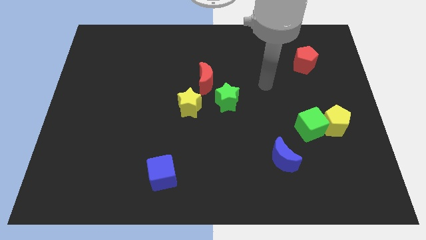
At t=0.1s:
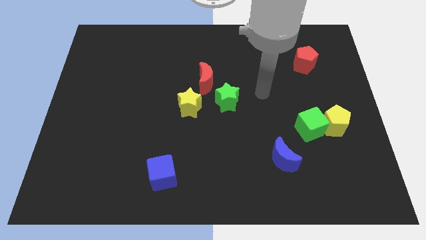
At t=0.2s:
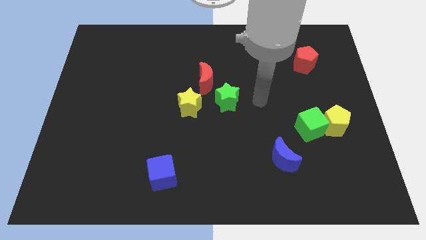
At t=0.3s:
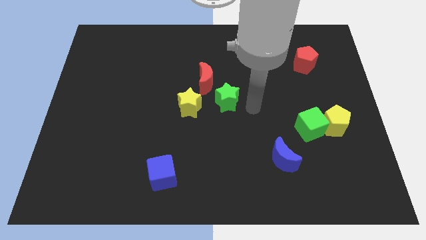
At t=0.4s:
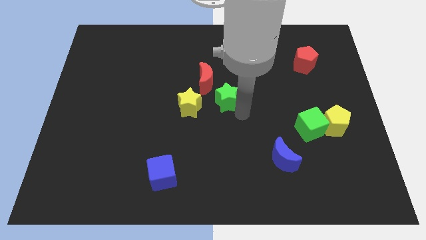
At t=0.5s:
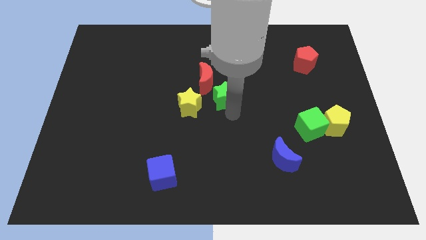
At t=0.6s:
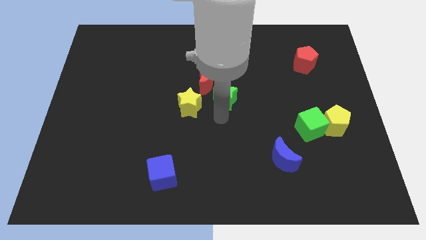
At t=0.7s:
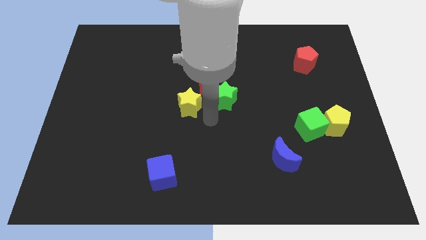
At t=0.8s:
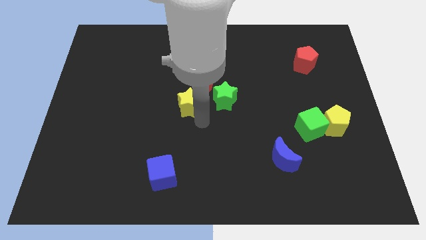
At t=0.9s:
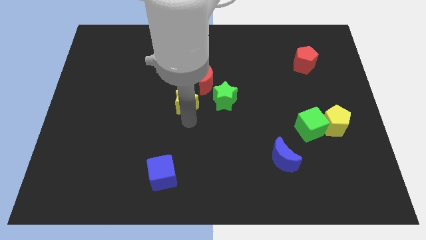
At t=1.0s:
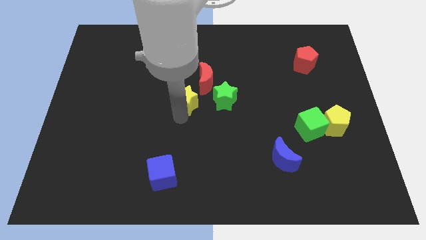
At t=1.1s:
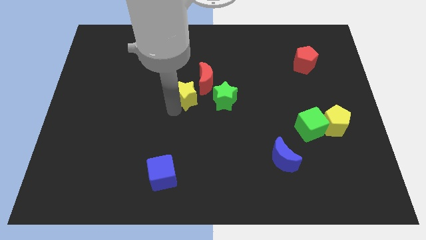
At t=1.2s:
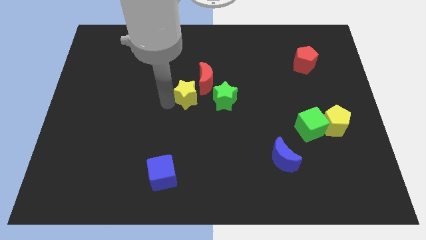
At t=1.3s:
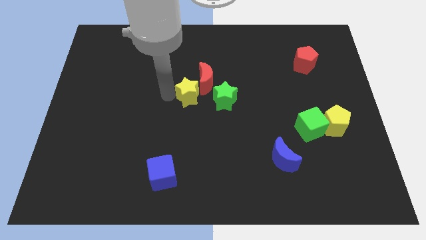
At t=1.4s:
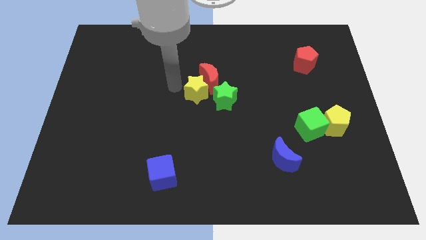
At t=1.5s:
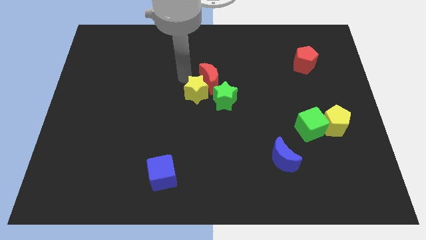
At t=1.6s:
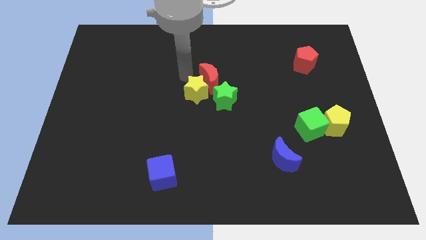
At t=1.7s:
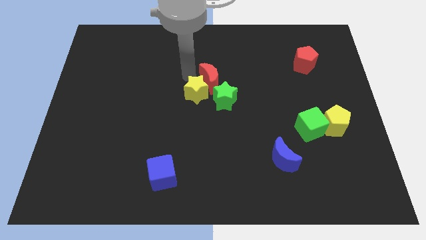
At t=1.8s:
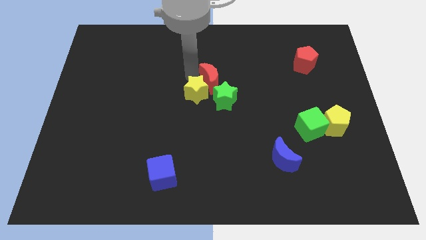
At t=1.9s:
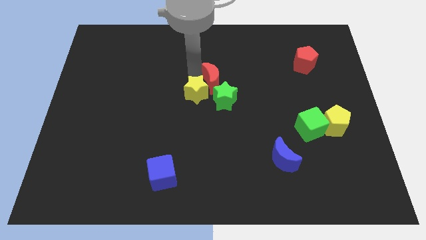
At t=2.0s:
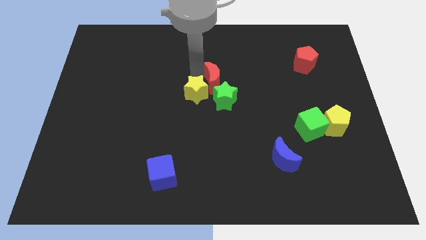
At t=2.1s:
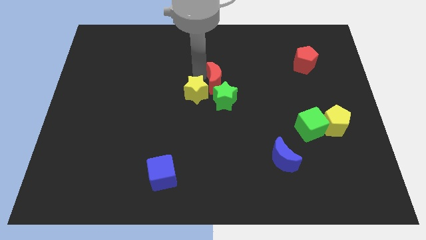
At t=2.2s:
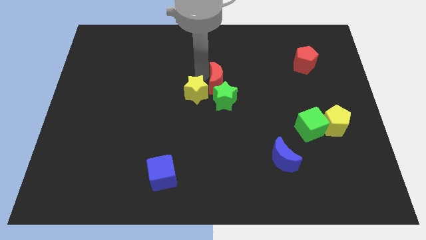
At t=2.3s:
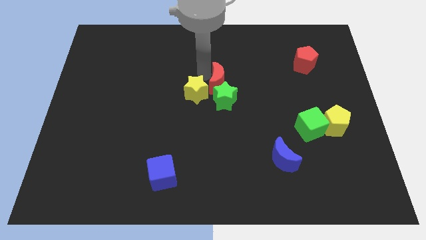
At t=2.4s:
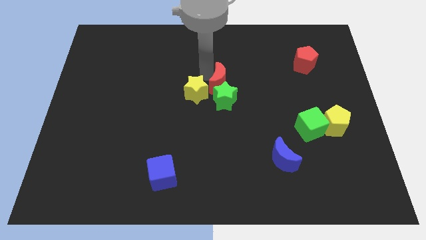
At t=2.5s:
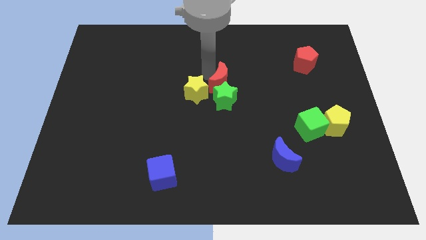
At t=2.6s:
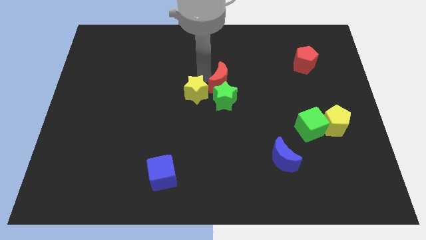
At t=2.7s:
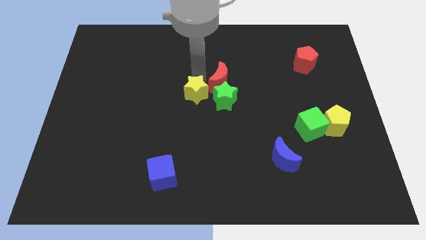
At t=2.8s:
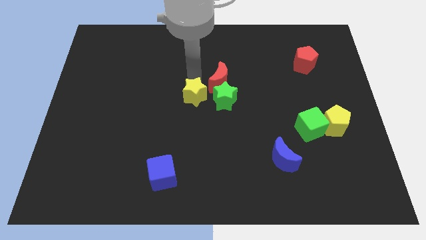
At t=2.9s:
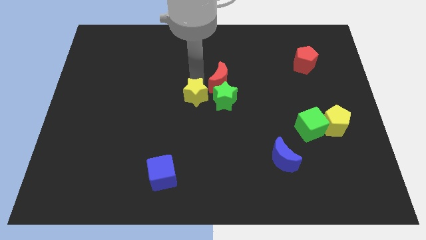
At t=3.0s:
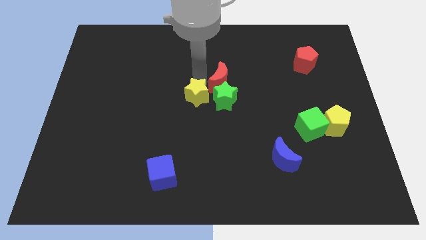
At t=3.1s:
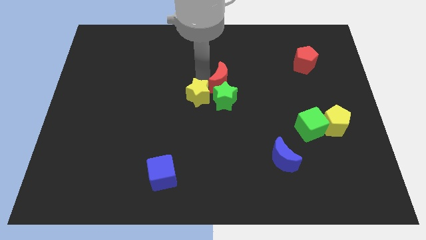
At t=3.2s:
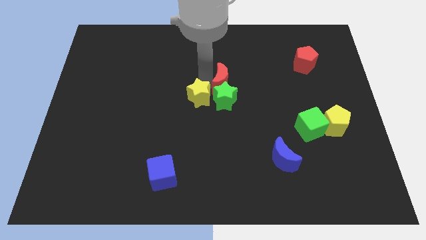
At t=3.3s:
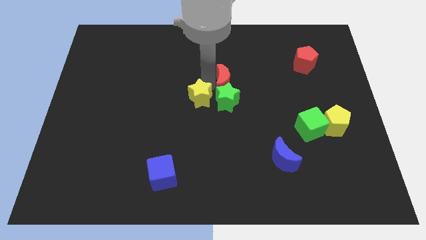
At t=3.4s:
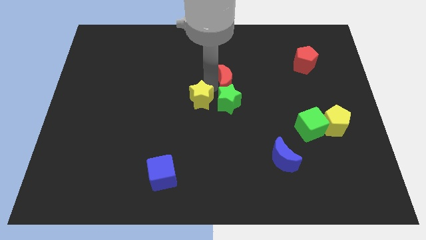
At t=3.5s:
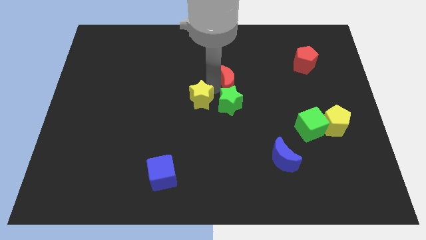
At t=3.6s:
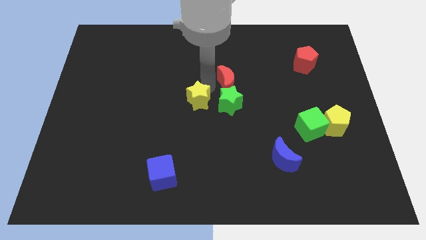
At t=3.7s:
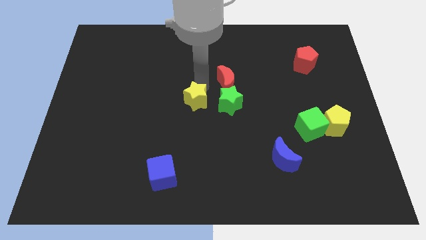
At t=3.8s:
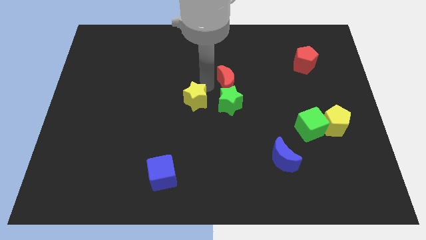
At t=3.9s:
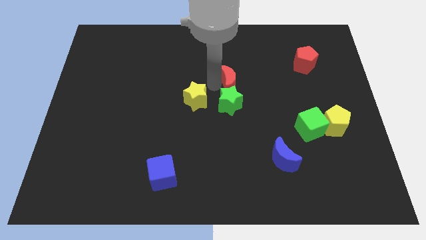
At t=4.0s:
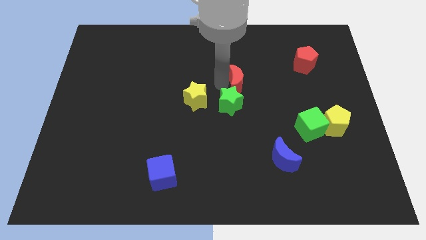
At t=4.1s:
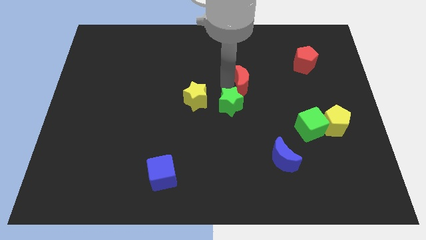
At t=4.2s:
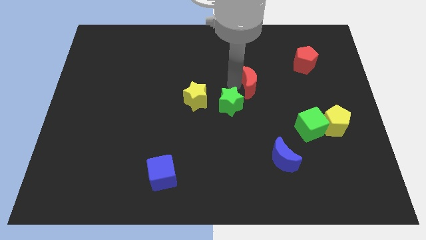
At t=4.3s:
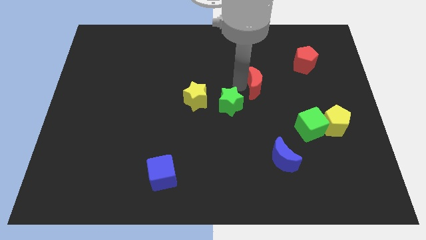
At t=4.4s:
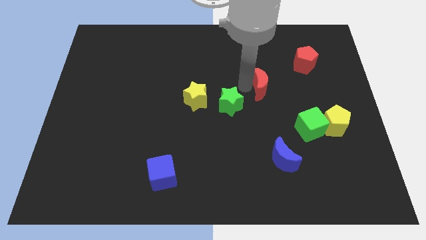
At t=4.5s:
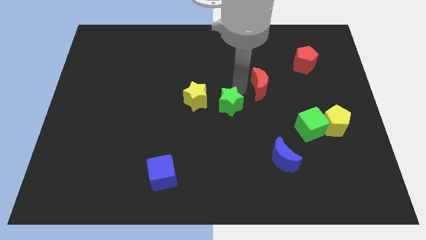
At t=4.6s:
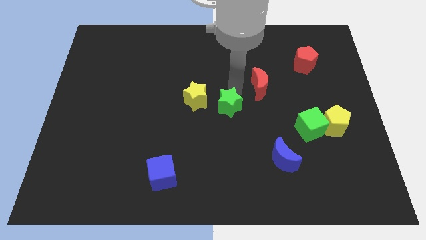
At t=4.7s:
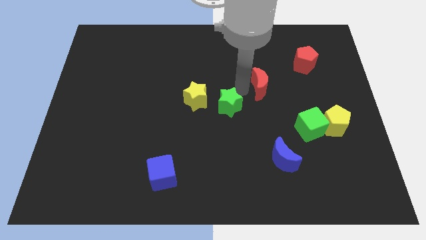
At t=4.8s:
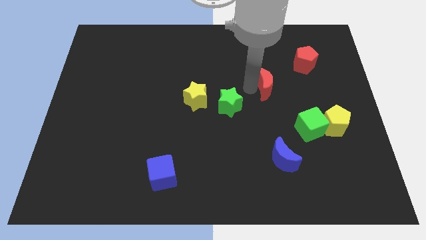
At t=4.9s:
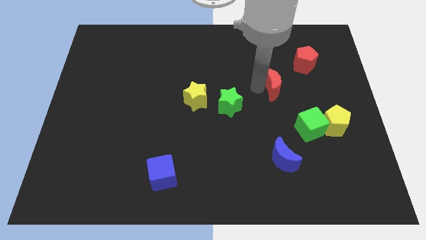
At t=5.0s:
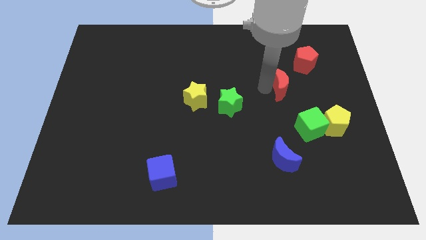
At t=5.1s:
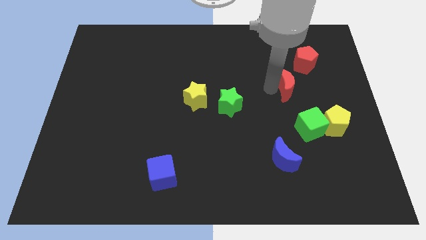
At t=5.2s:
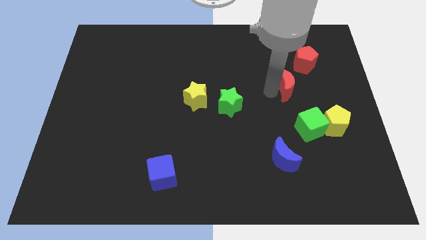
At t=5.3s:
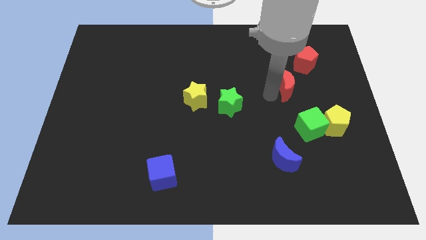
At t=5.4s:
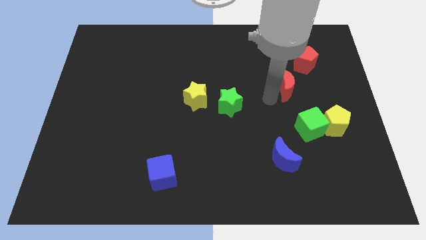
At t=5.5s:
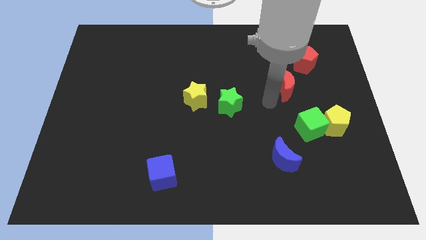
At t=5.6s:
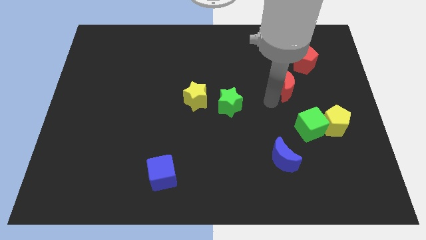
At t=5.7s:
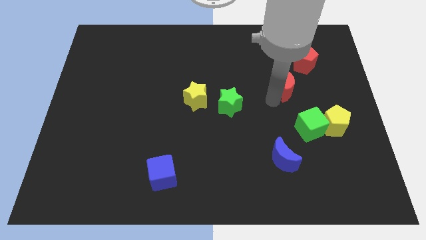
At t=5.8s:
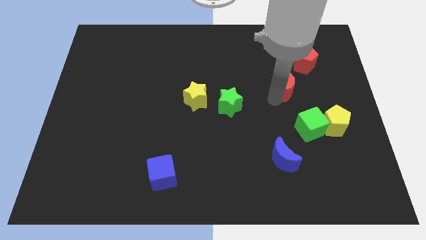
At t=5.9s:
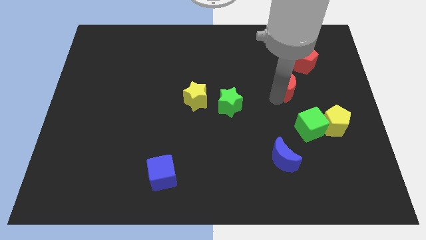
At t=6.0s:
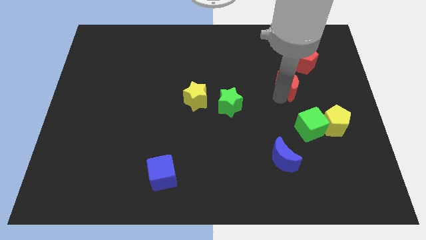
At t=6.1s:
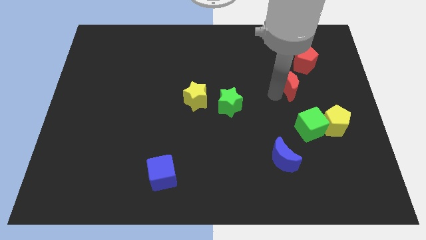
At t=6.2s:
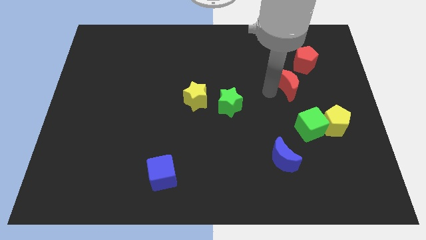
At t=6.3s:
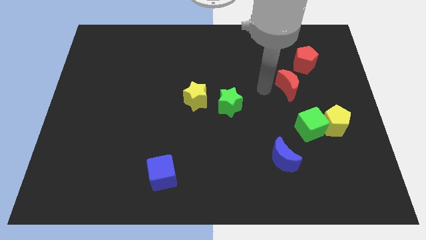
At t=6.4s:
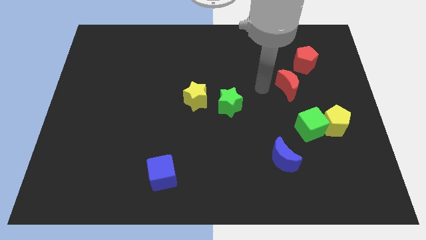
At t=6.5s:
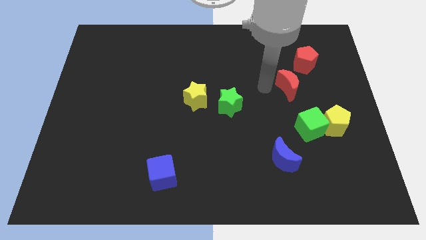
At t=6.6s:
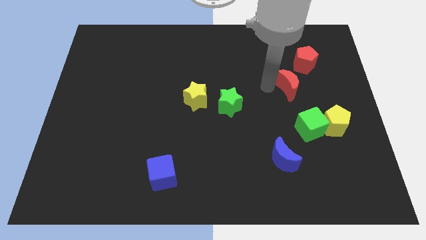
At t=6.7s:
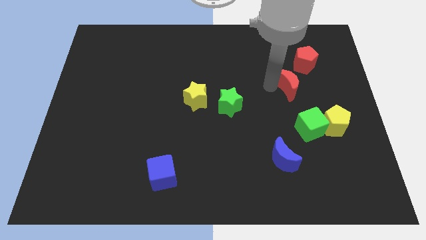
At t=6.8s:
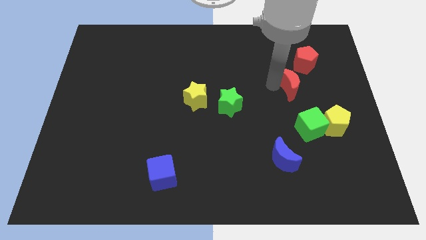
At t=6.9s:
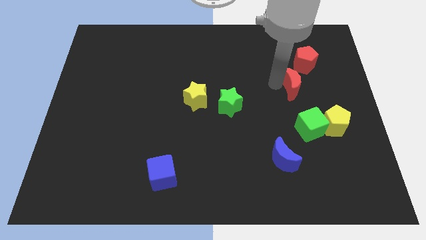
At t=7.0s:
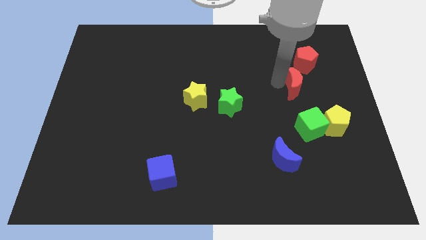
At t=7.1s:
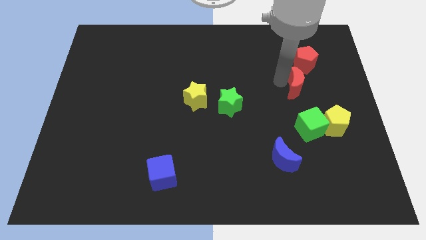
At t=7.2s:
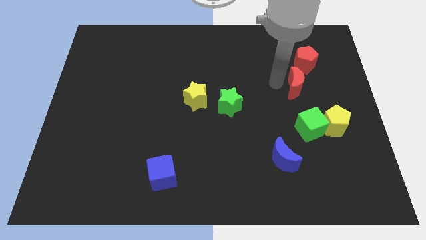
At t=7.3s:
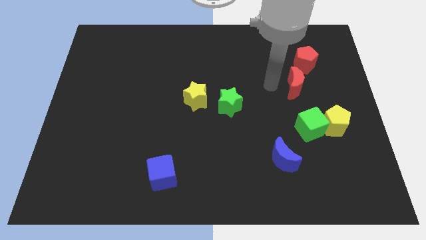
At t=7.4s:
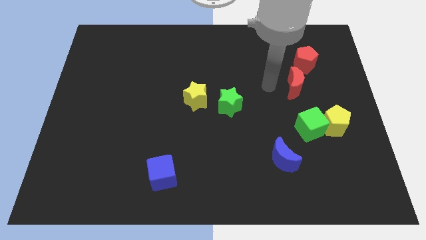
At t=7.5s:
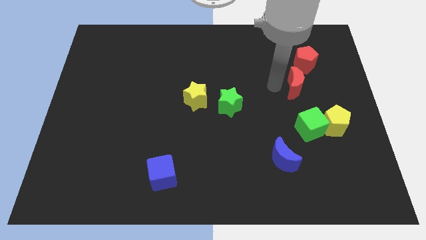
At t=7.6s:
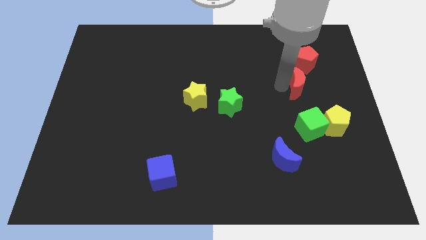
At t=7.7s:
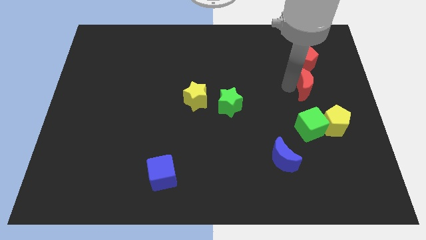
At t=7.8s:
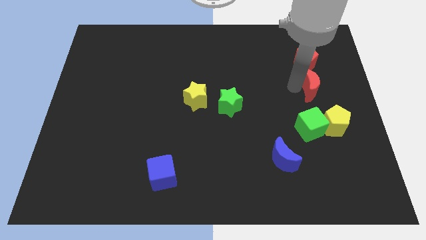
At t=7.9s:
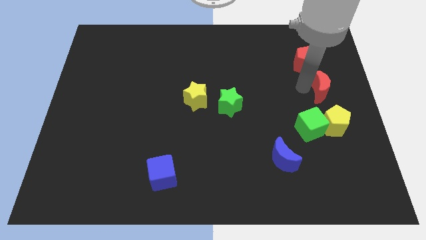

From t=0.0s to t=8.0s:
put the red moon to the center right
